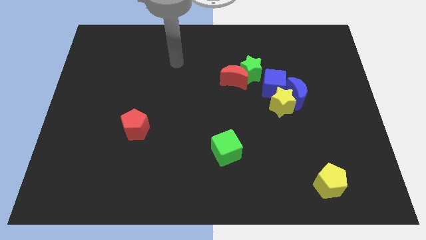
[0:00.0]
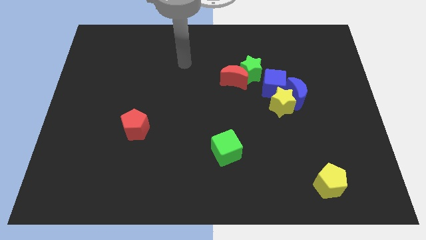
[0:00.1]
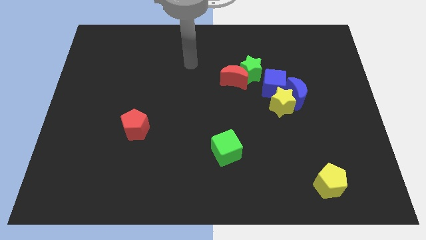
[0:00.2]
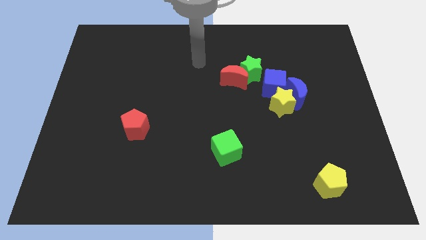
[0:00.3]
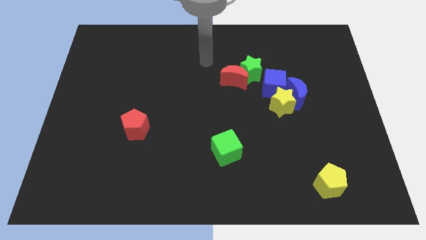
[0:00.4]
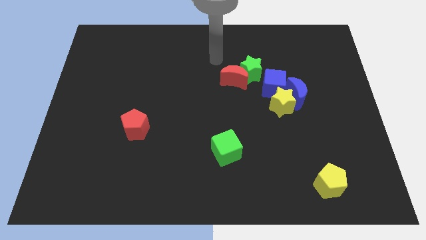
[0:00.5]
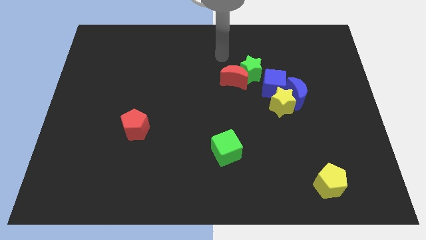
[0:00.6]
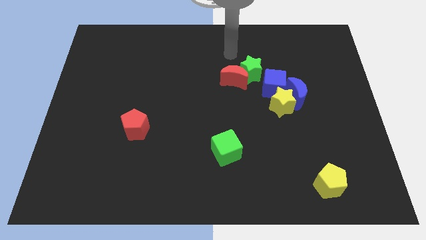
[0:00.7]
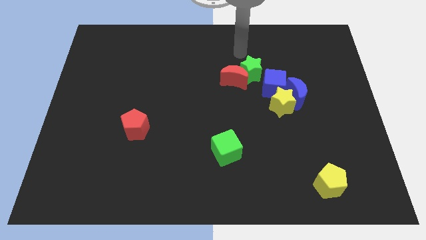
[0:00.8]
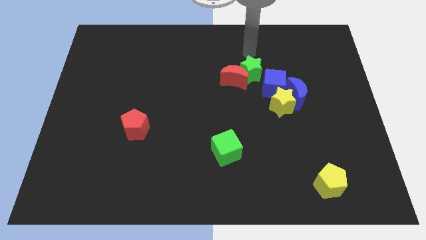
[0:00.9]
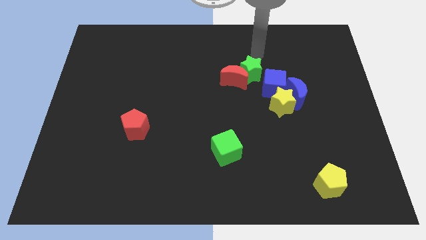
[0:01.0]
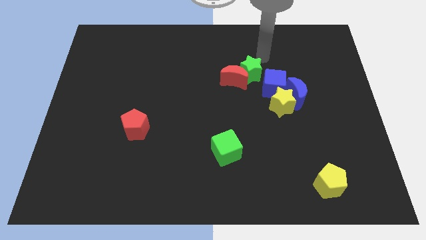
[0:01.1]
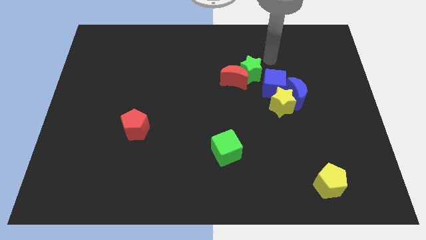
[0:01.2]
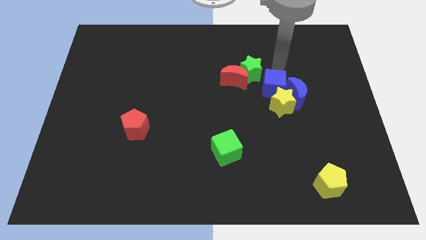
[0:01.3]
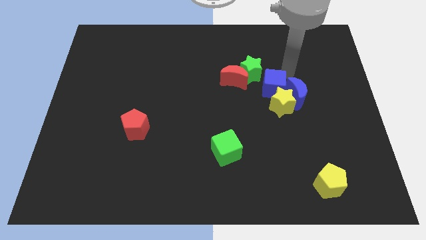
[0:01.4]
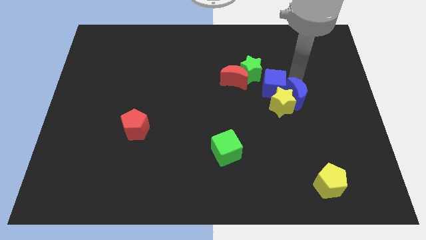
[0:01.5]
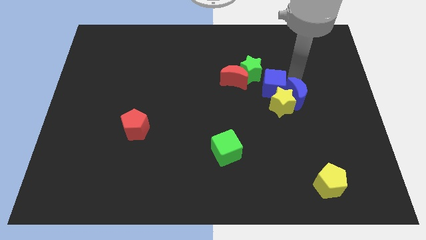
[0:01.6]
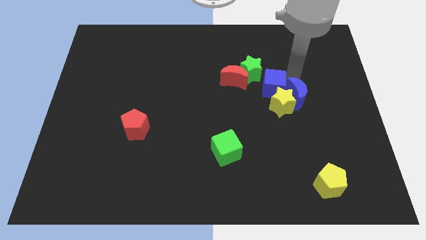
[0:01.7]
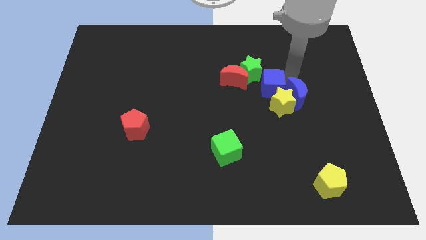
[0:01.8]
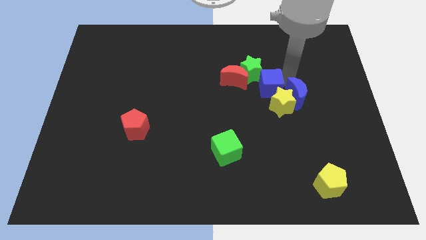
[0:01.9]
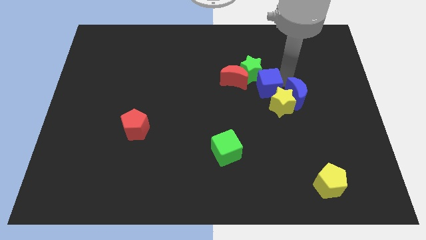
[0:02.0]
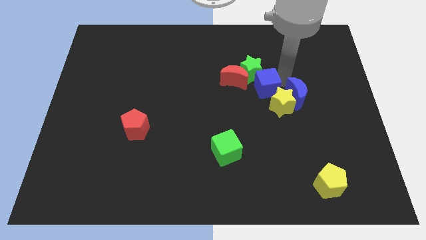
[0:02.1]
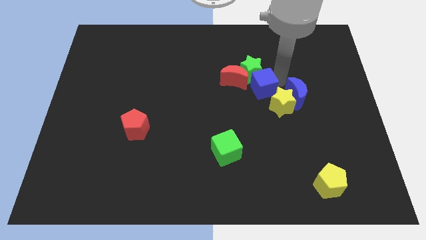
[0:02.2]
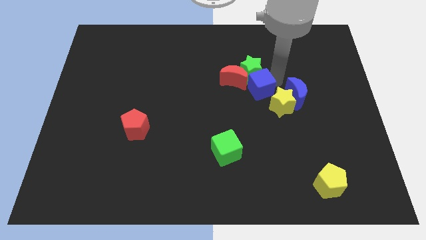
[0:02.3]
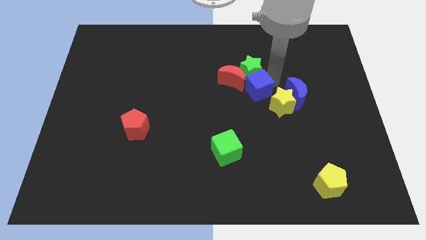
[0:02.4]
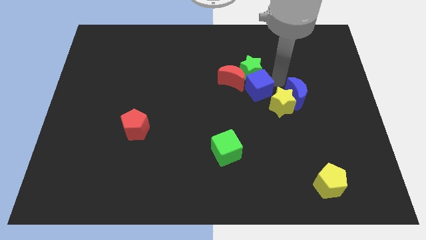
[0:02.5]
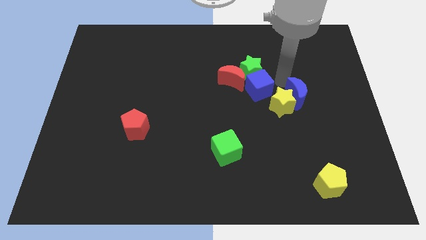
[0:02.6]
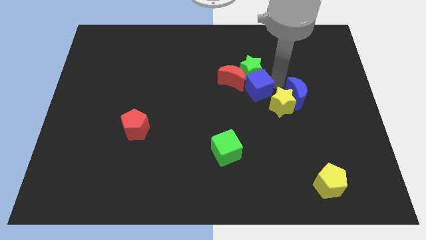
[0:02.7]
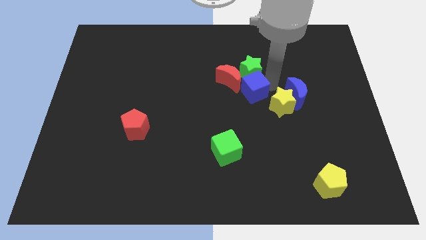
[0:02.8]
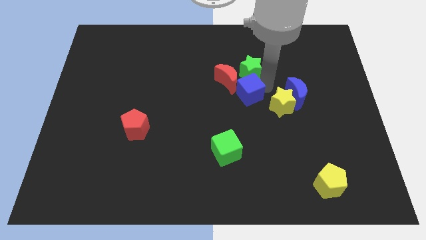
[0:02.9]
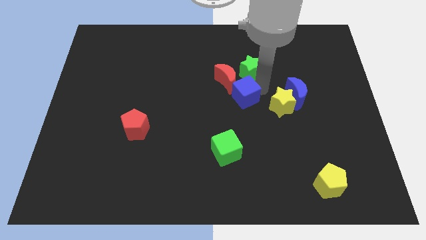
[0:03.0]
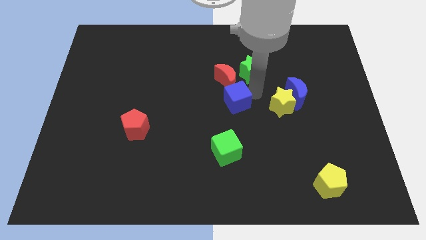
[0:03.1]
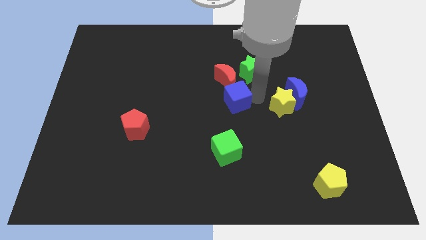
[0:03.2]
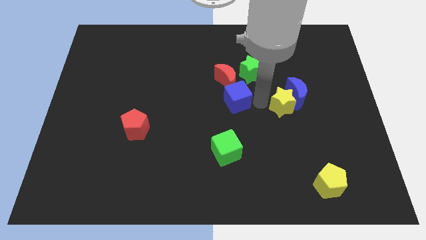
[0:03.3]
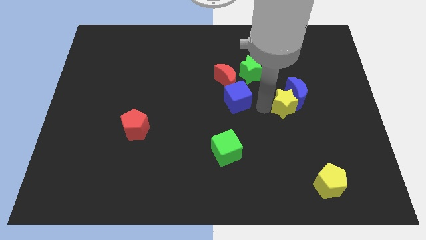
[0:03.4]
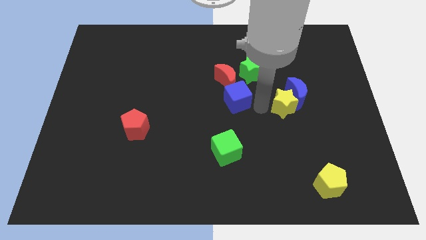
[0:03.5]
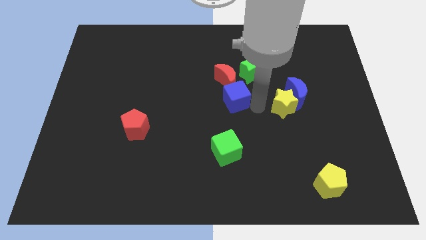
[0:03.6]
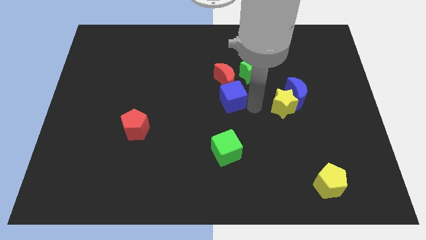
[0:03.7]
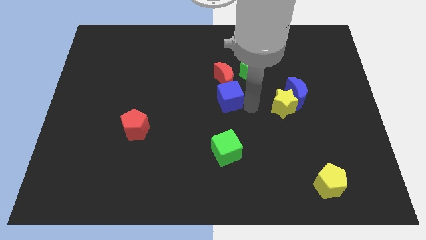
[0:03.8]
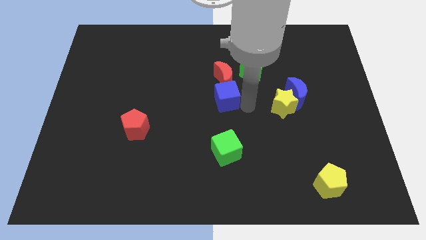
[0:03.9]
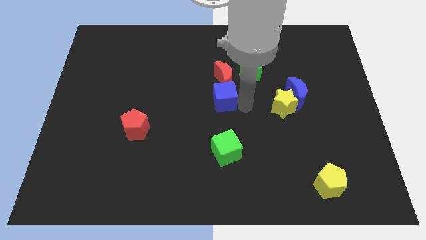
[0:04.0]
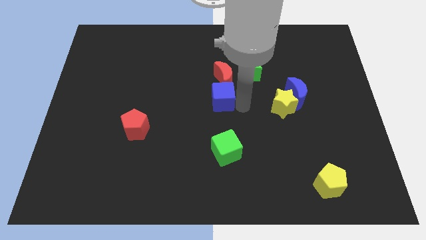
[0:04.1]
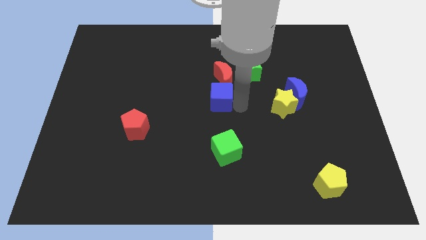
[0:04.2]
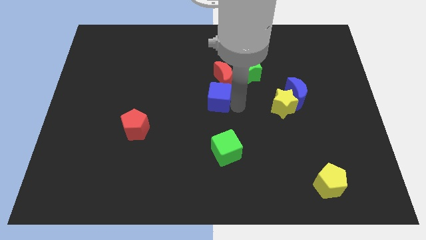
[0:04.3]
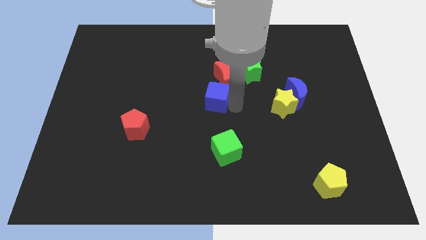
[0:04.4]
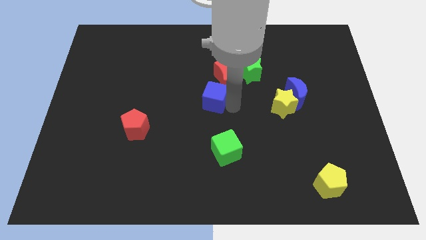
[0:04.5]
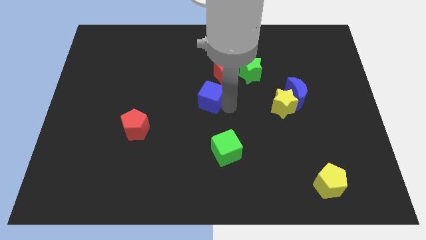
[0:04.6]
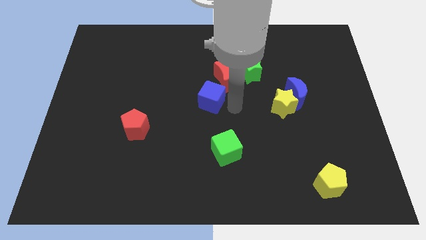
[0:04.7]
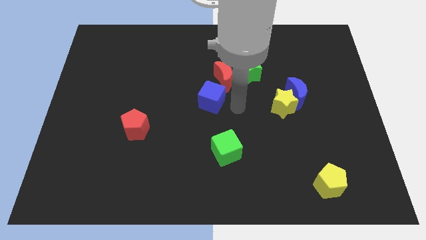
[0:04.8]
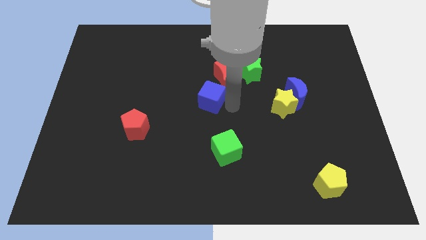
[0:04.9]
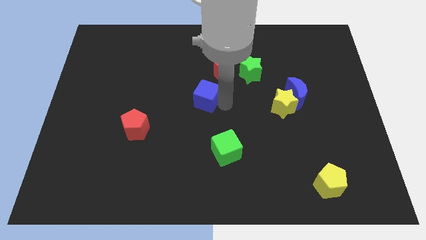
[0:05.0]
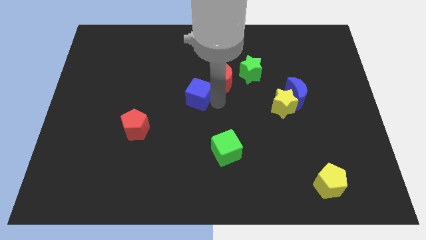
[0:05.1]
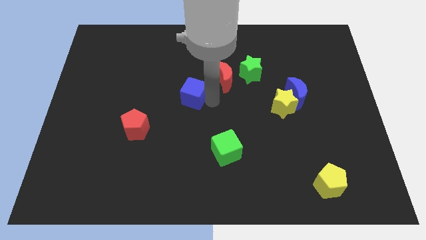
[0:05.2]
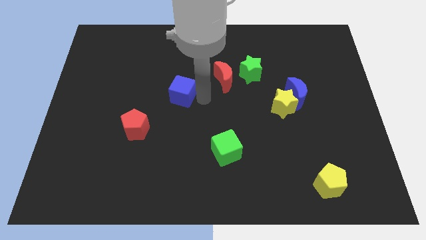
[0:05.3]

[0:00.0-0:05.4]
move the blue cube to the left

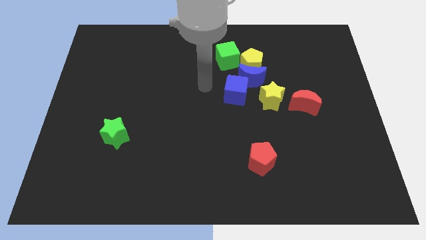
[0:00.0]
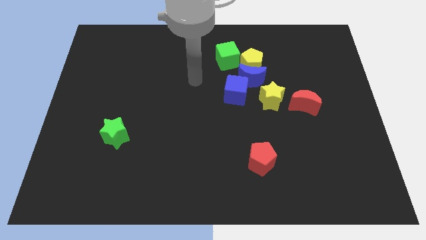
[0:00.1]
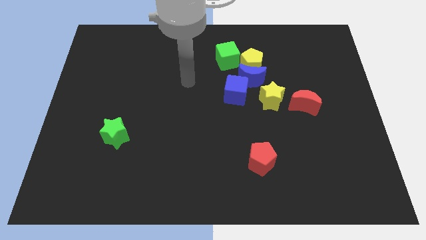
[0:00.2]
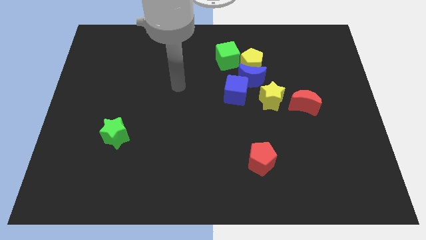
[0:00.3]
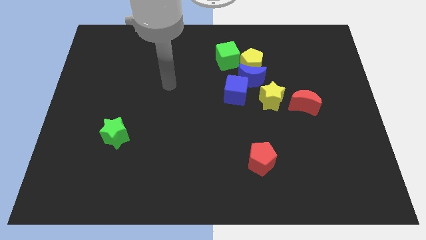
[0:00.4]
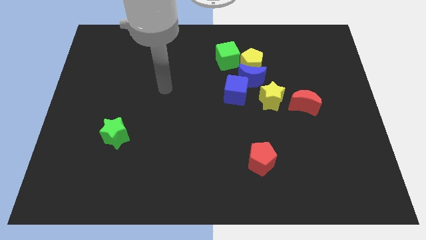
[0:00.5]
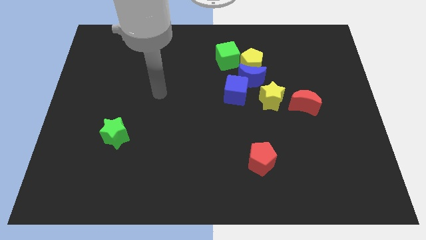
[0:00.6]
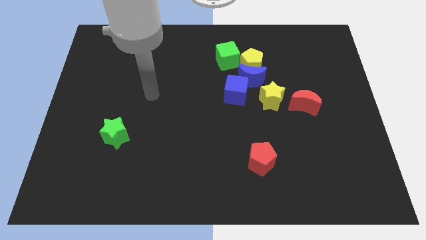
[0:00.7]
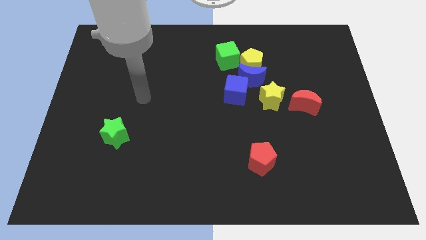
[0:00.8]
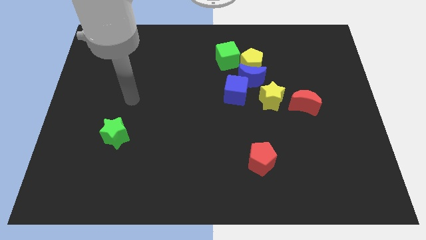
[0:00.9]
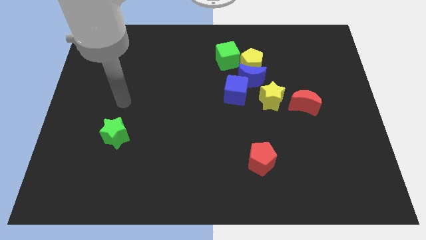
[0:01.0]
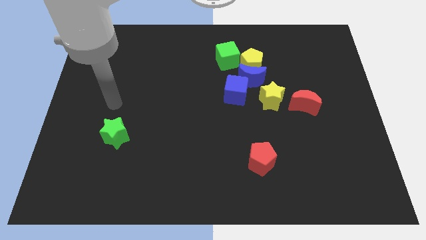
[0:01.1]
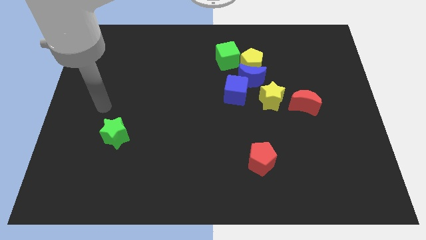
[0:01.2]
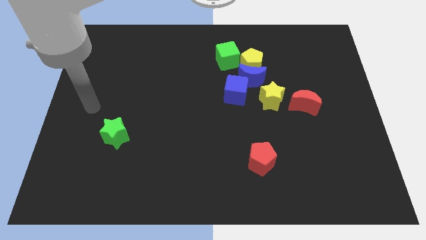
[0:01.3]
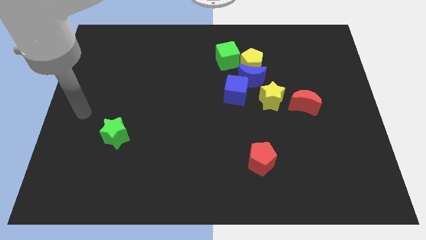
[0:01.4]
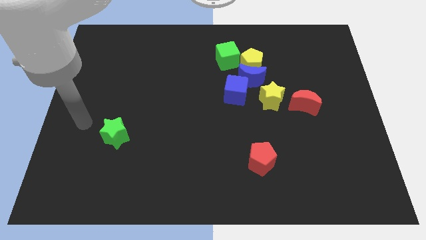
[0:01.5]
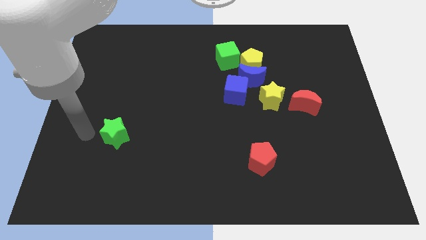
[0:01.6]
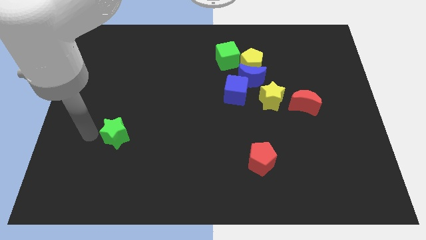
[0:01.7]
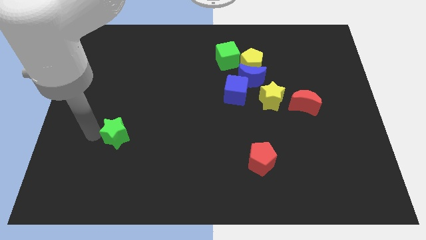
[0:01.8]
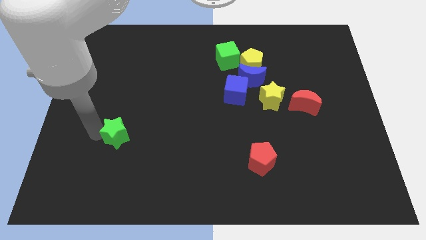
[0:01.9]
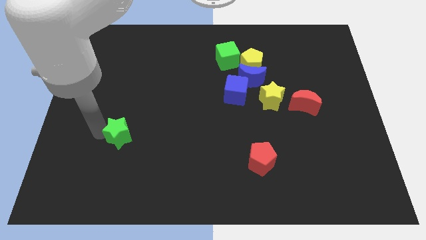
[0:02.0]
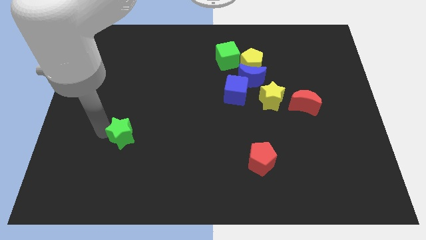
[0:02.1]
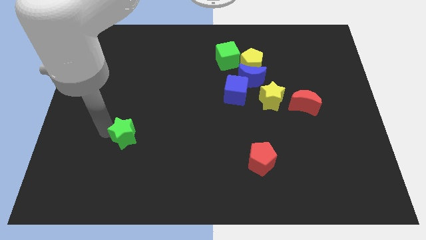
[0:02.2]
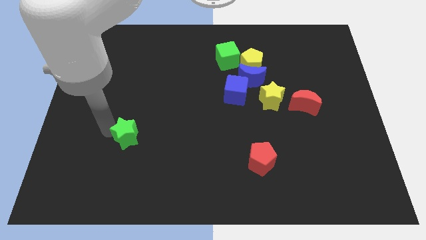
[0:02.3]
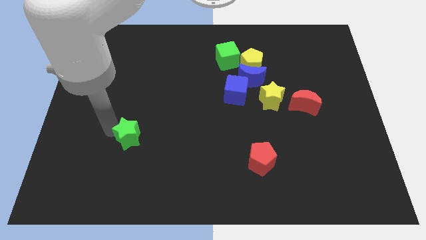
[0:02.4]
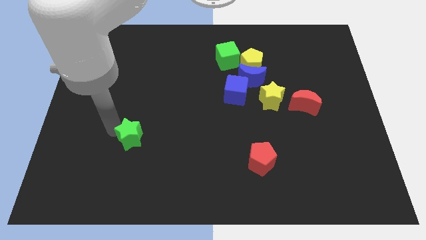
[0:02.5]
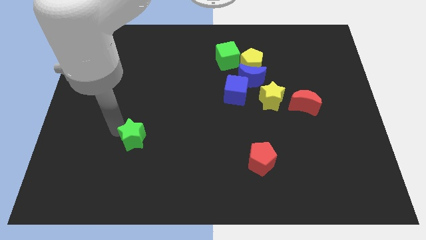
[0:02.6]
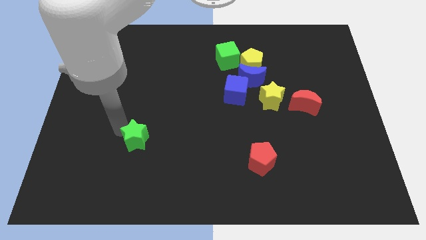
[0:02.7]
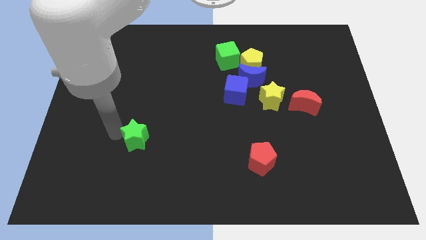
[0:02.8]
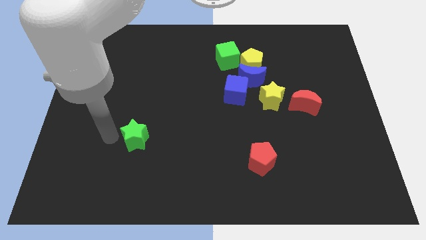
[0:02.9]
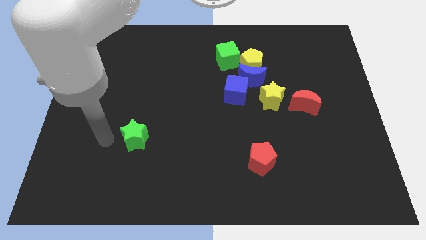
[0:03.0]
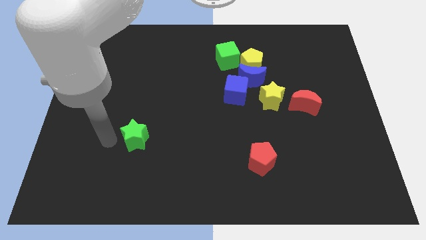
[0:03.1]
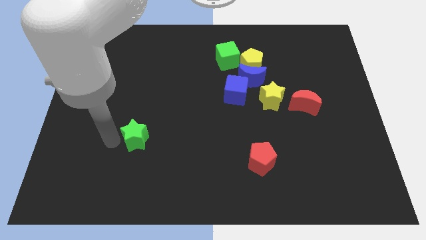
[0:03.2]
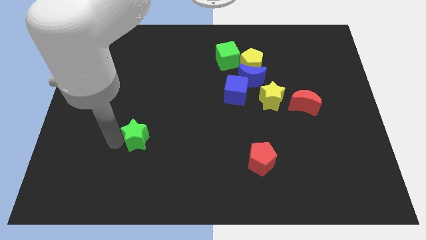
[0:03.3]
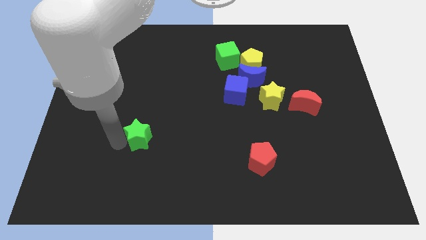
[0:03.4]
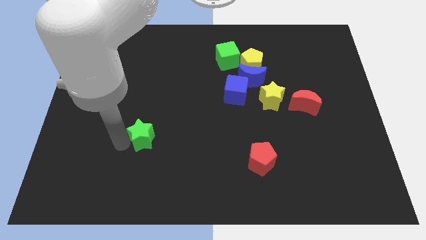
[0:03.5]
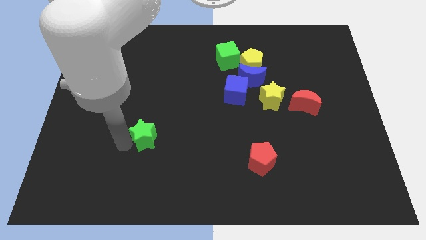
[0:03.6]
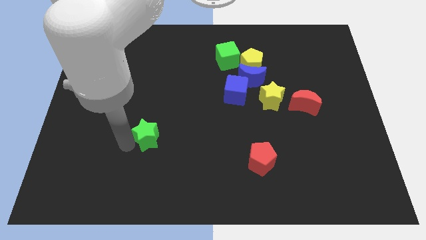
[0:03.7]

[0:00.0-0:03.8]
slide the green star to the right a bit
